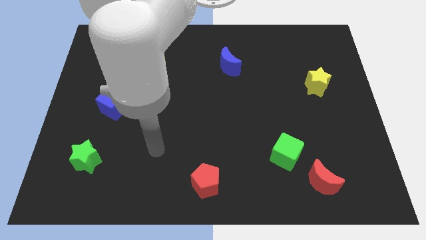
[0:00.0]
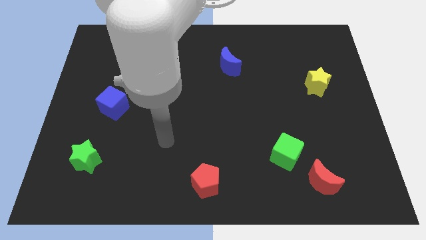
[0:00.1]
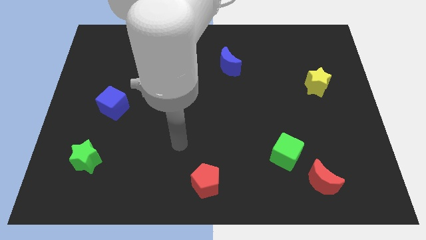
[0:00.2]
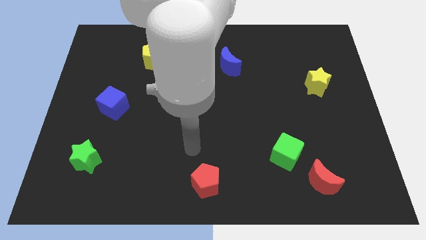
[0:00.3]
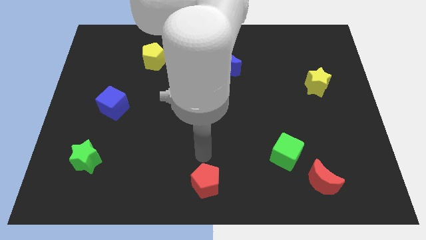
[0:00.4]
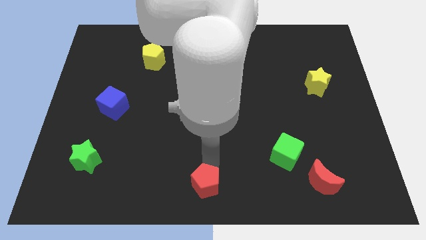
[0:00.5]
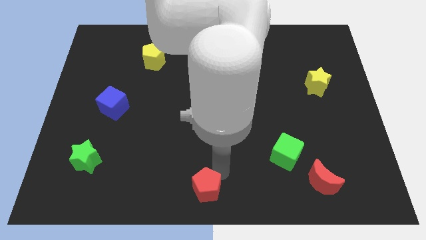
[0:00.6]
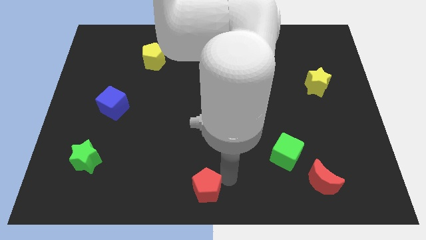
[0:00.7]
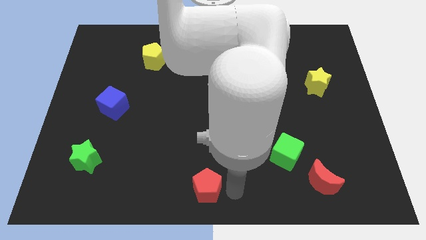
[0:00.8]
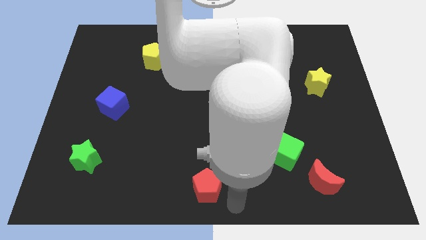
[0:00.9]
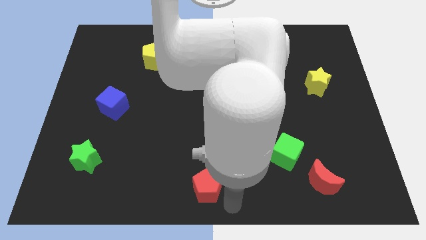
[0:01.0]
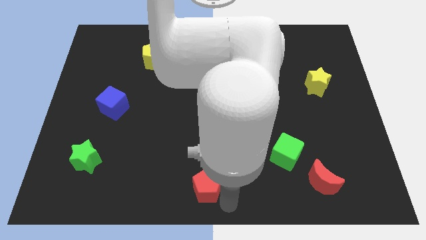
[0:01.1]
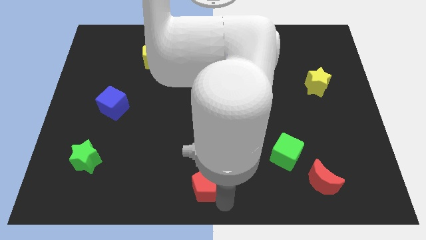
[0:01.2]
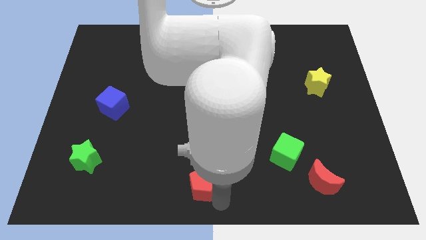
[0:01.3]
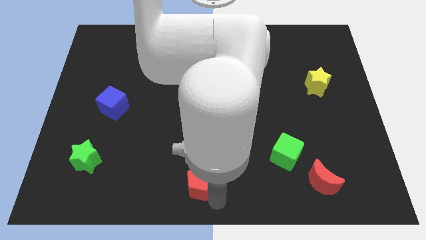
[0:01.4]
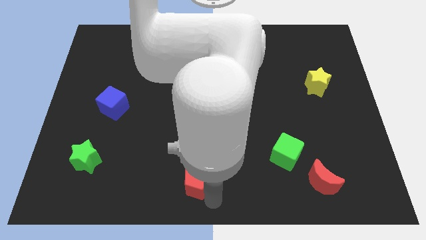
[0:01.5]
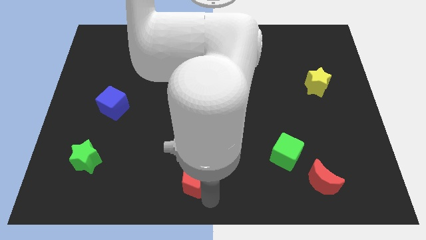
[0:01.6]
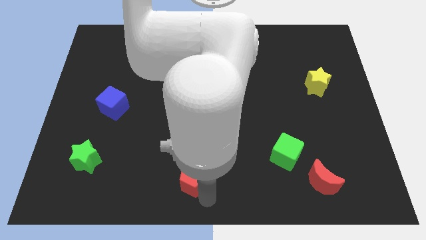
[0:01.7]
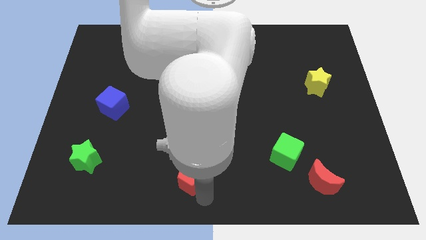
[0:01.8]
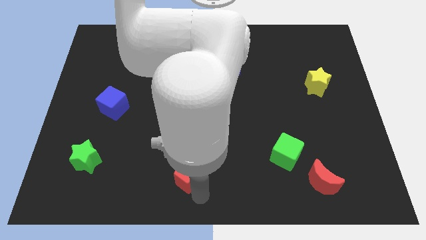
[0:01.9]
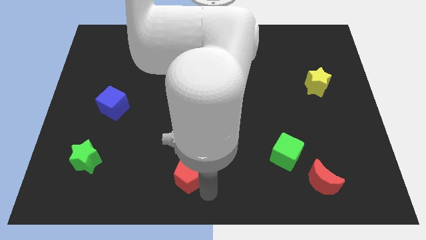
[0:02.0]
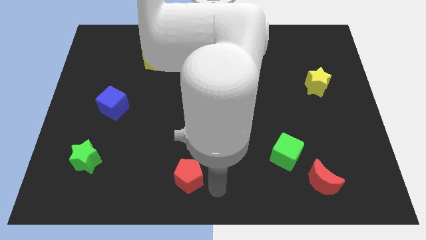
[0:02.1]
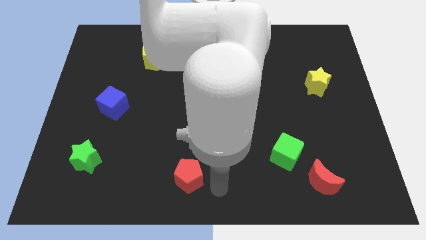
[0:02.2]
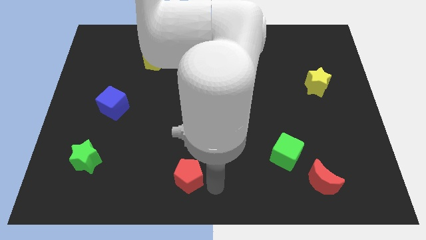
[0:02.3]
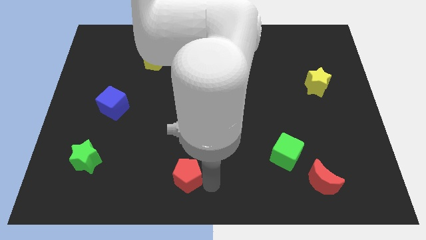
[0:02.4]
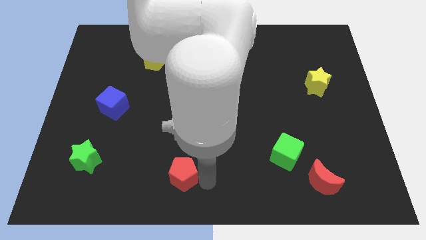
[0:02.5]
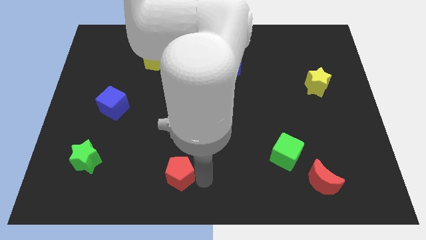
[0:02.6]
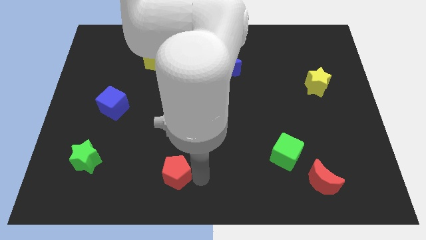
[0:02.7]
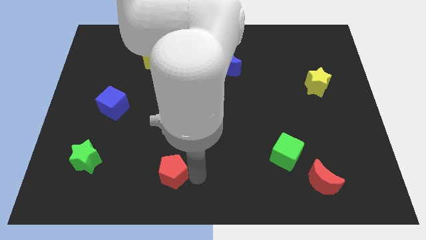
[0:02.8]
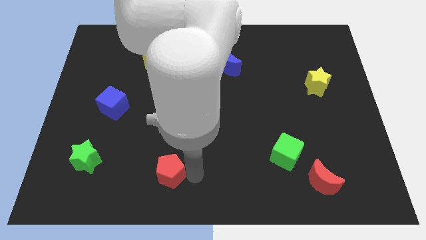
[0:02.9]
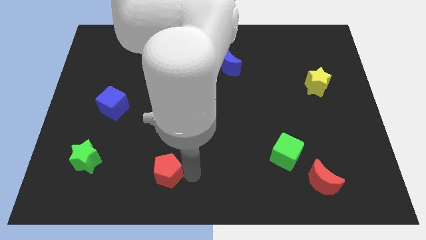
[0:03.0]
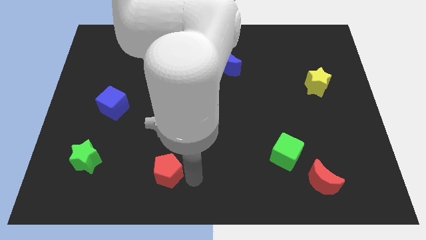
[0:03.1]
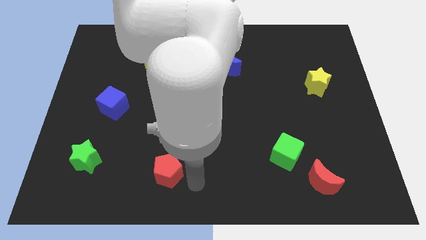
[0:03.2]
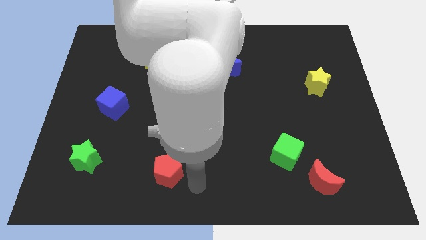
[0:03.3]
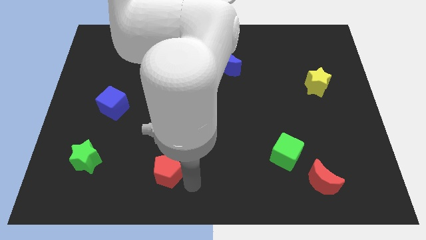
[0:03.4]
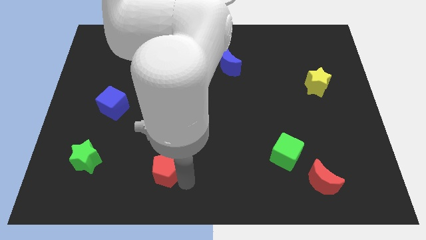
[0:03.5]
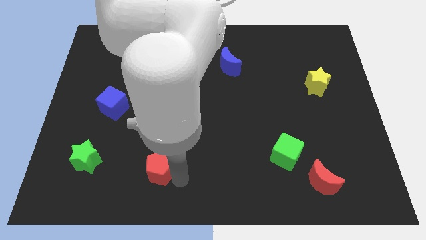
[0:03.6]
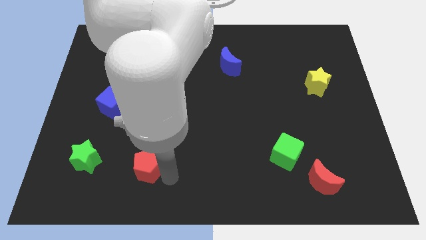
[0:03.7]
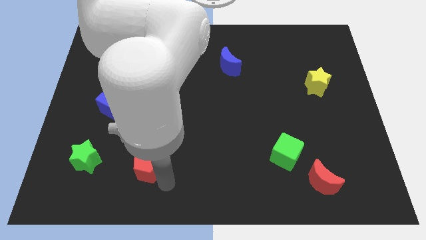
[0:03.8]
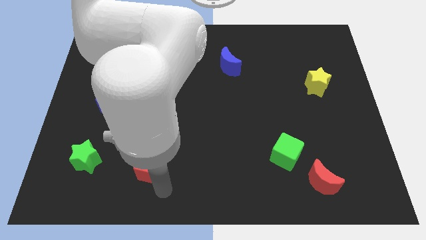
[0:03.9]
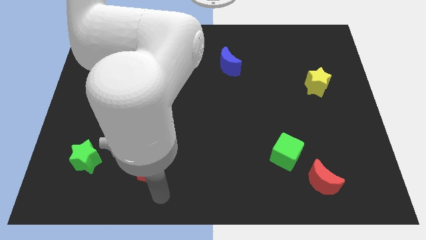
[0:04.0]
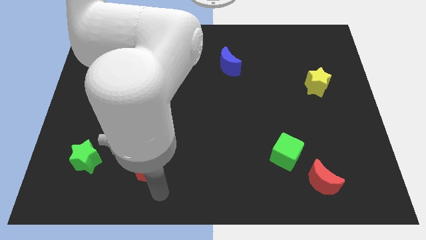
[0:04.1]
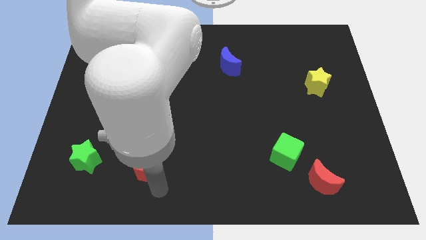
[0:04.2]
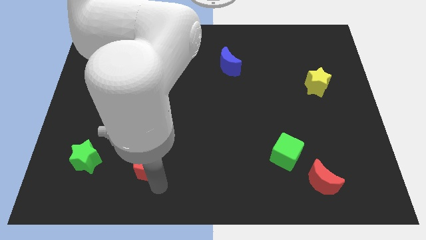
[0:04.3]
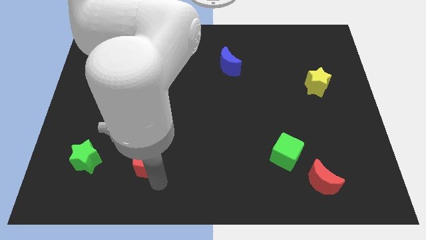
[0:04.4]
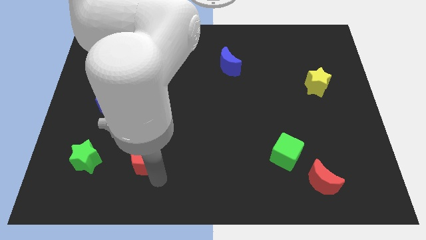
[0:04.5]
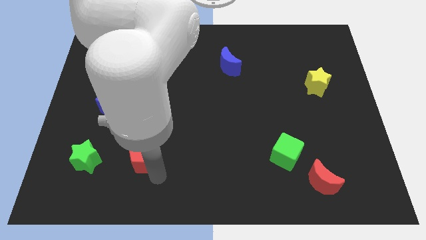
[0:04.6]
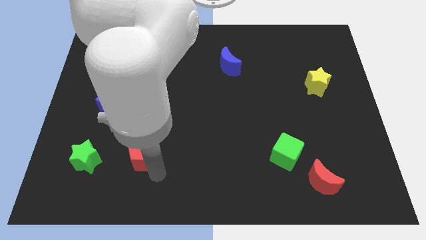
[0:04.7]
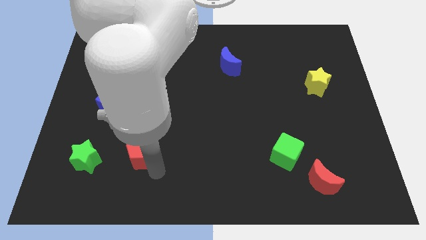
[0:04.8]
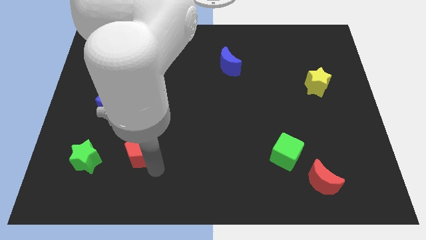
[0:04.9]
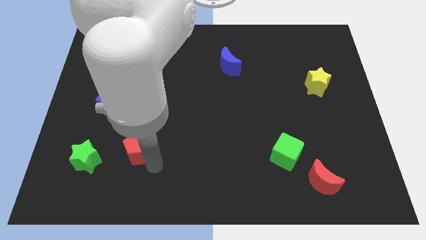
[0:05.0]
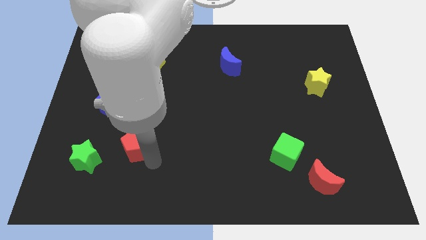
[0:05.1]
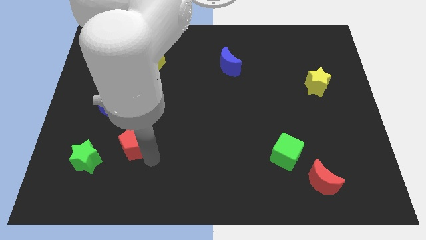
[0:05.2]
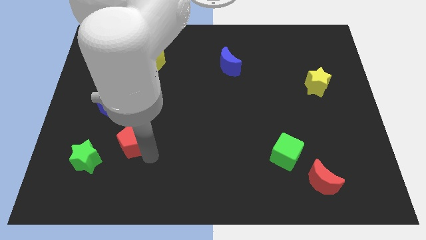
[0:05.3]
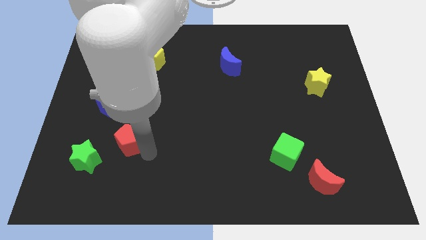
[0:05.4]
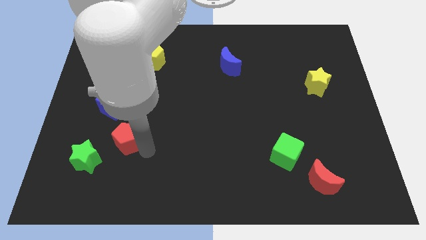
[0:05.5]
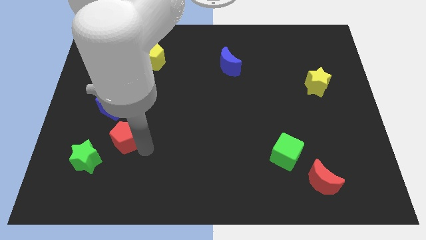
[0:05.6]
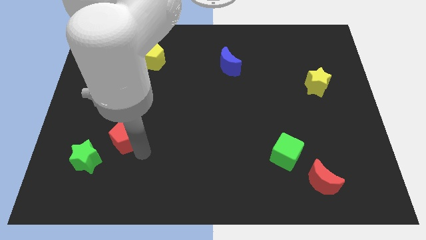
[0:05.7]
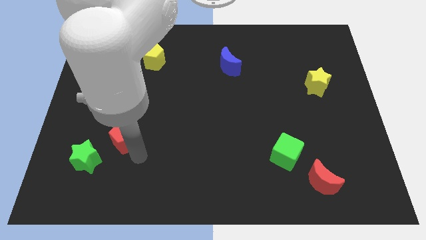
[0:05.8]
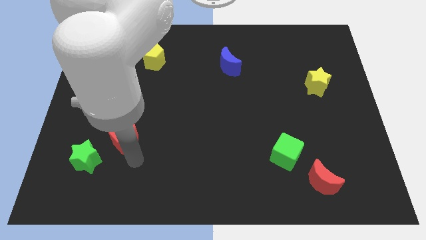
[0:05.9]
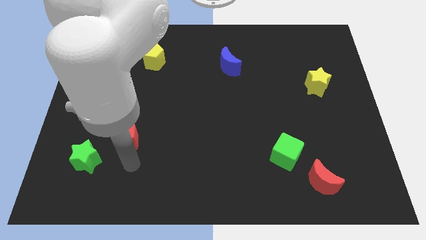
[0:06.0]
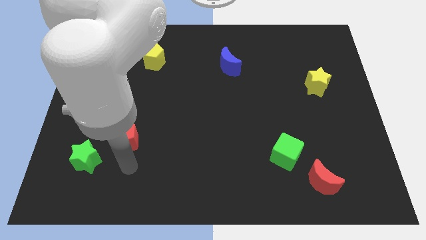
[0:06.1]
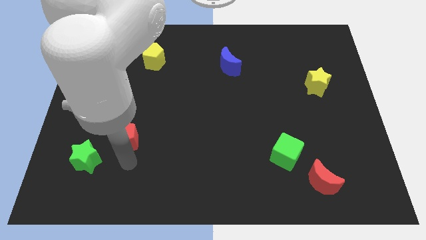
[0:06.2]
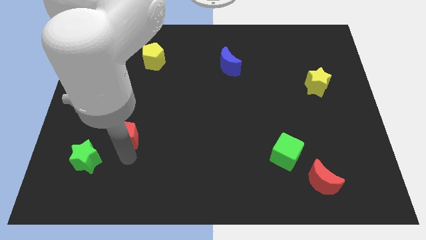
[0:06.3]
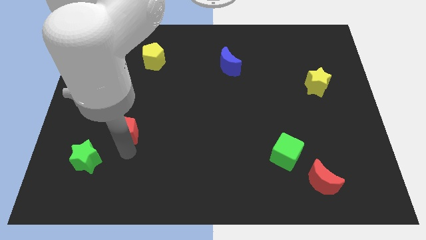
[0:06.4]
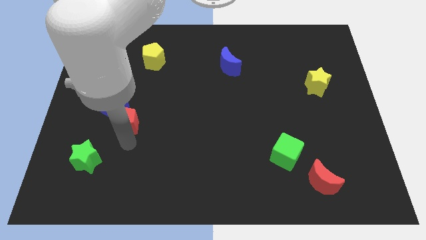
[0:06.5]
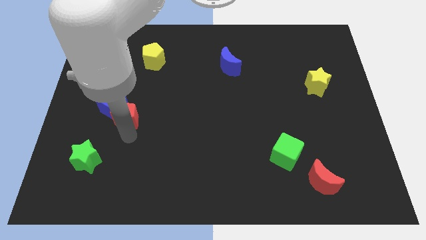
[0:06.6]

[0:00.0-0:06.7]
push the red pentagon to the blue cube
